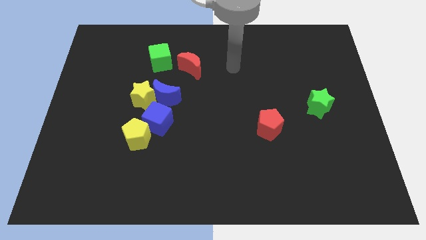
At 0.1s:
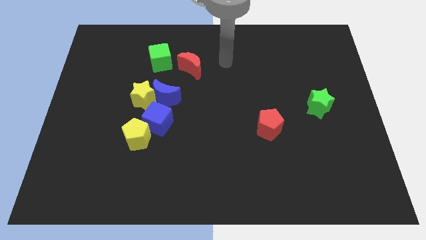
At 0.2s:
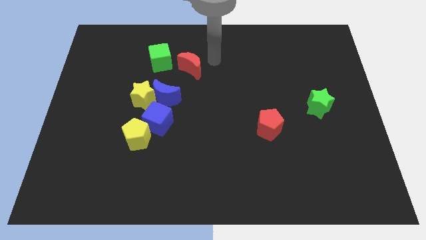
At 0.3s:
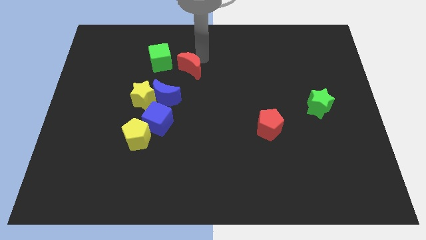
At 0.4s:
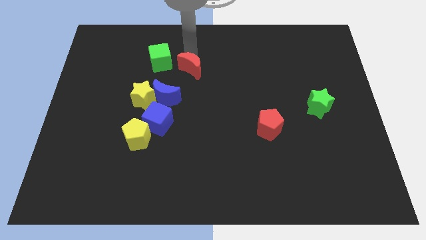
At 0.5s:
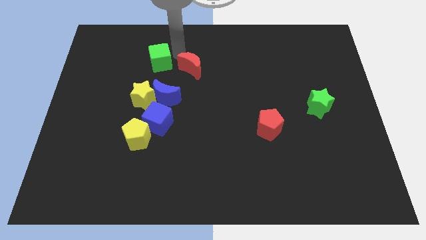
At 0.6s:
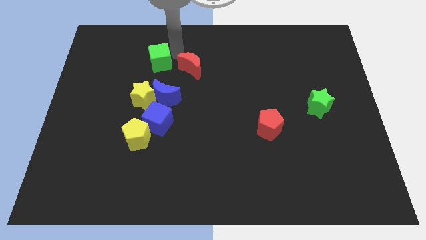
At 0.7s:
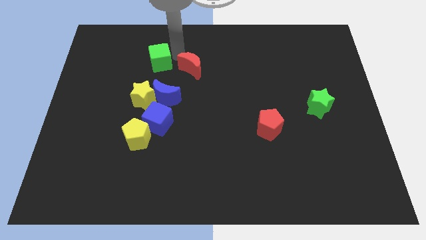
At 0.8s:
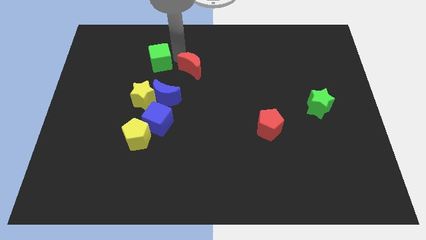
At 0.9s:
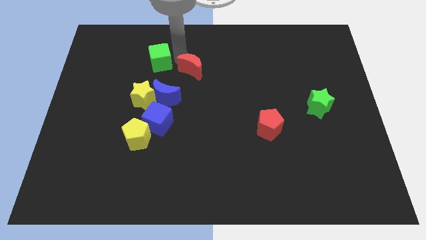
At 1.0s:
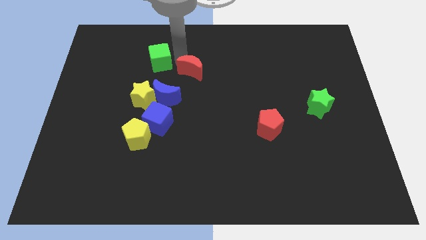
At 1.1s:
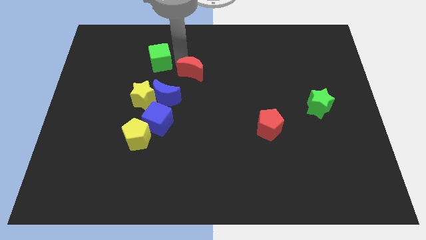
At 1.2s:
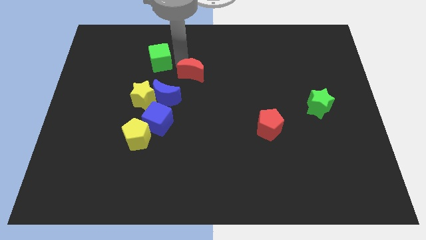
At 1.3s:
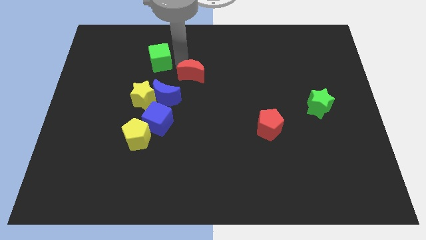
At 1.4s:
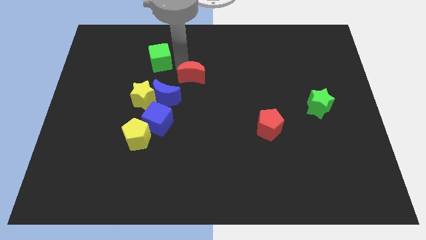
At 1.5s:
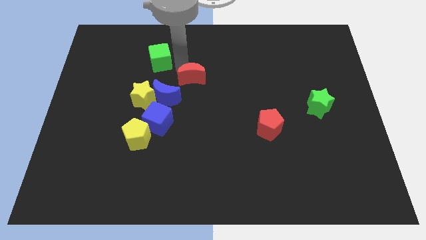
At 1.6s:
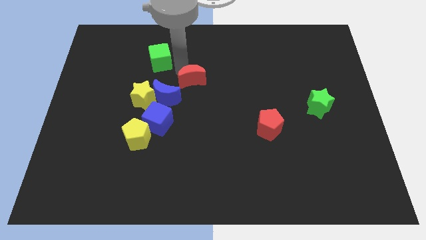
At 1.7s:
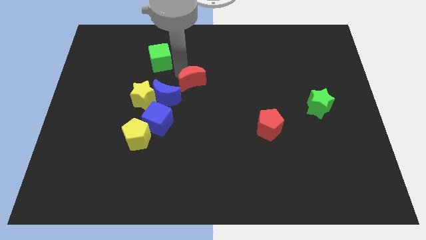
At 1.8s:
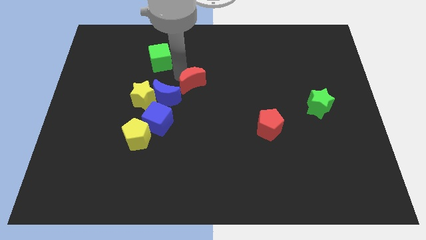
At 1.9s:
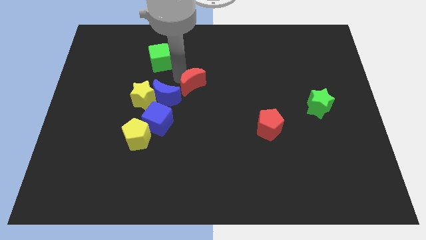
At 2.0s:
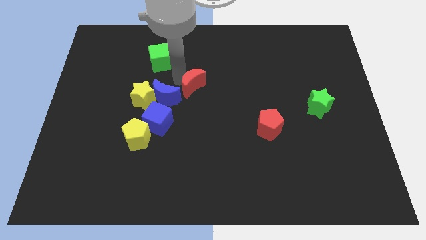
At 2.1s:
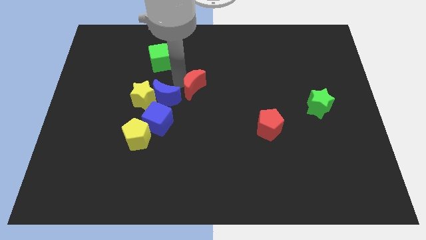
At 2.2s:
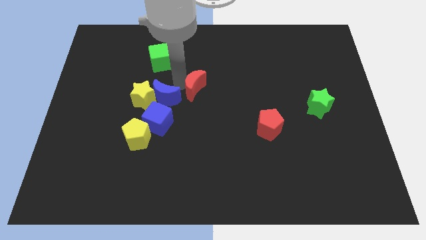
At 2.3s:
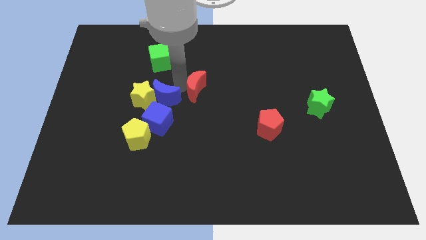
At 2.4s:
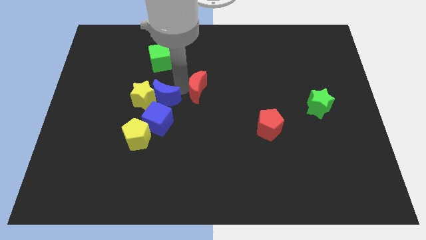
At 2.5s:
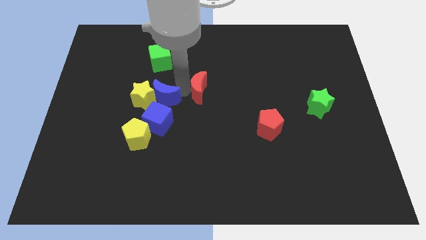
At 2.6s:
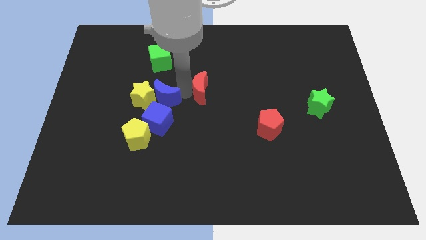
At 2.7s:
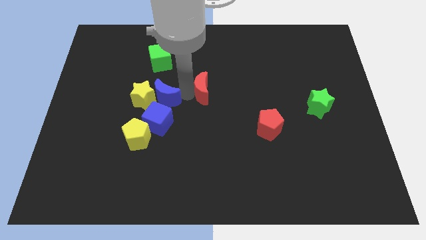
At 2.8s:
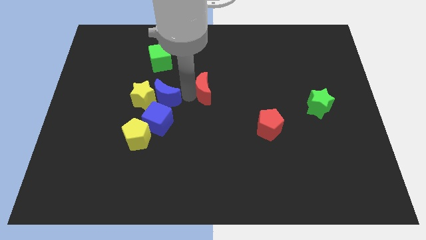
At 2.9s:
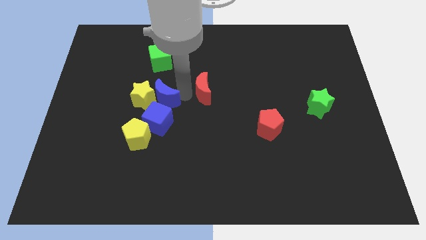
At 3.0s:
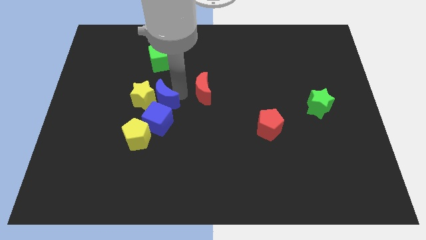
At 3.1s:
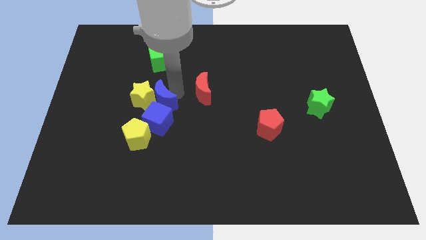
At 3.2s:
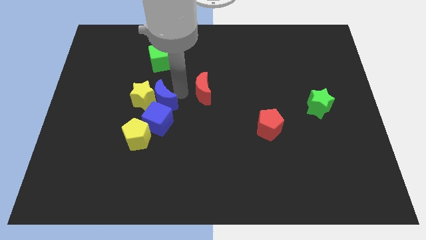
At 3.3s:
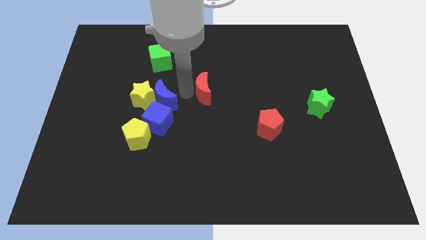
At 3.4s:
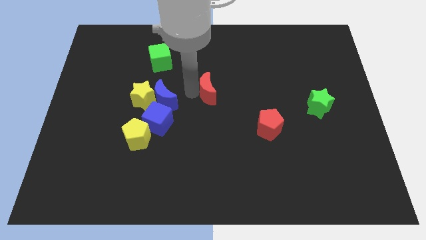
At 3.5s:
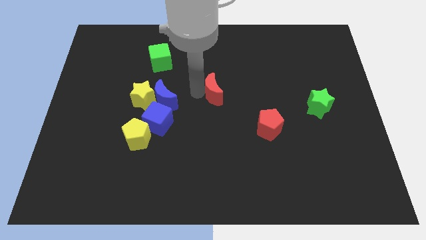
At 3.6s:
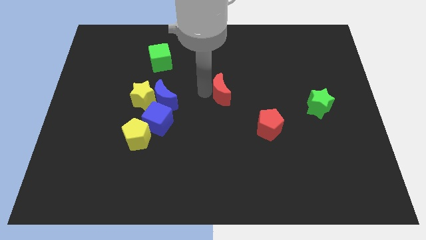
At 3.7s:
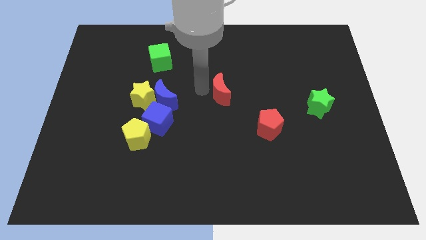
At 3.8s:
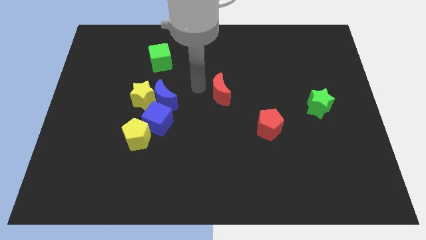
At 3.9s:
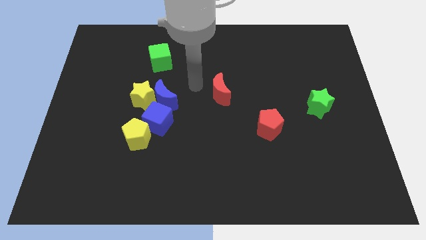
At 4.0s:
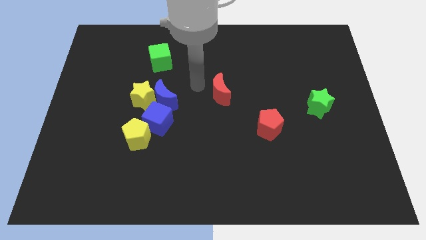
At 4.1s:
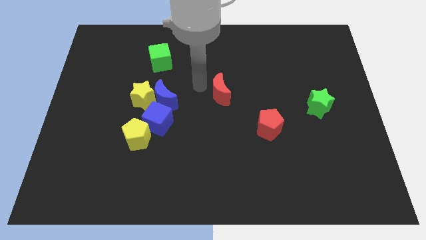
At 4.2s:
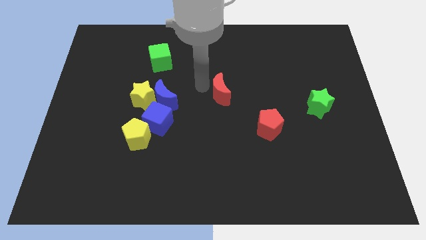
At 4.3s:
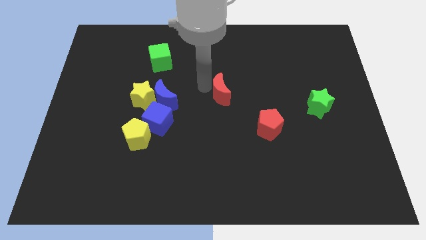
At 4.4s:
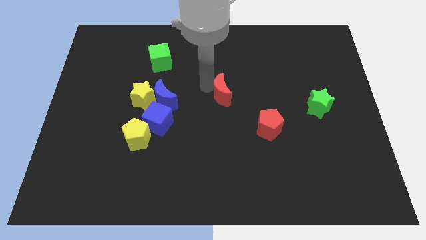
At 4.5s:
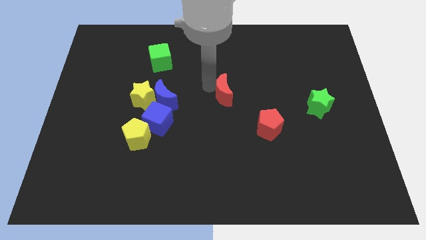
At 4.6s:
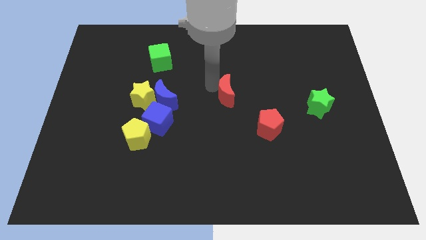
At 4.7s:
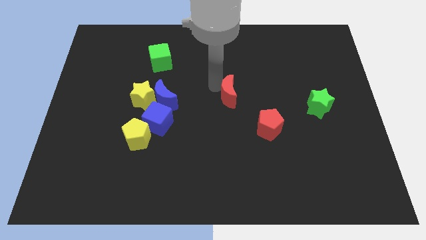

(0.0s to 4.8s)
push the red moon to the top left side of the red pentagon

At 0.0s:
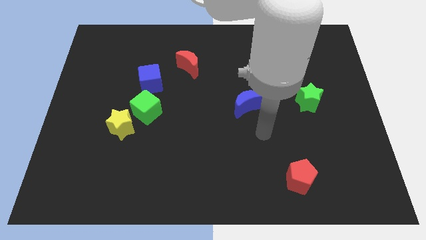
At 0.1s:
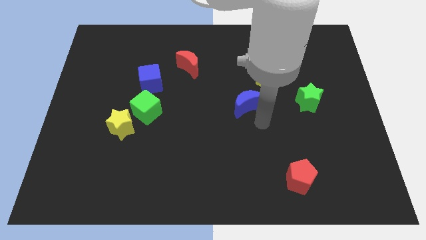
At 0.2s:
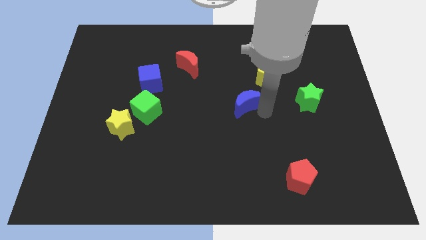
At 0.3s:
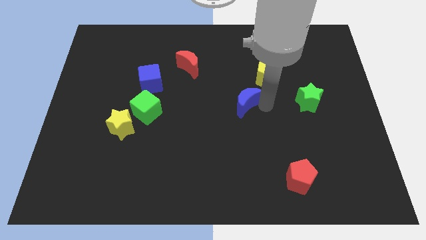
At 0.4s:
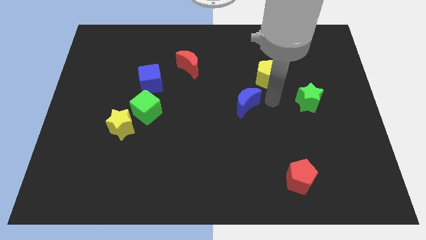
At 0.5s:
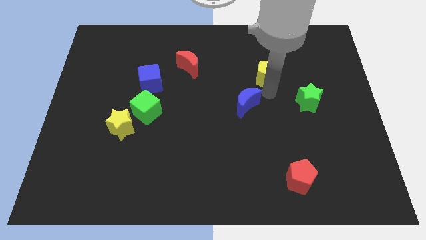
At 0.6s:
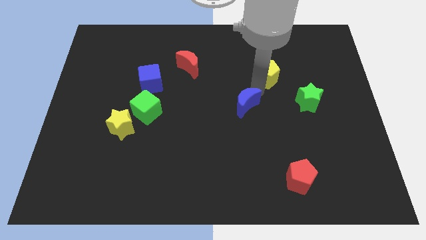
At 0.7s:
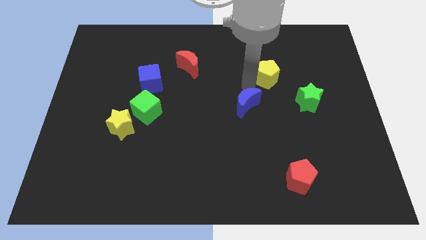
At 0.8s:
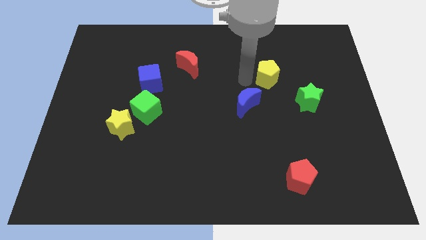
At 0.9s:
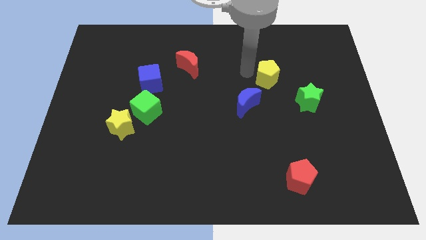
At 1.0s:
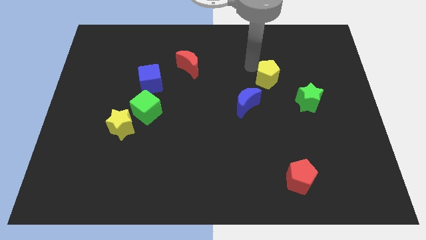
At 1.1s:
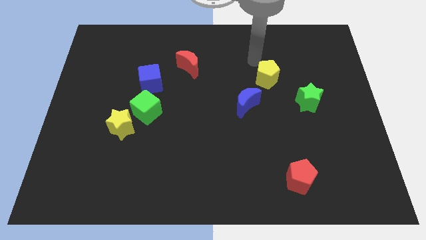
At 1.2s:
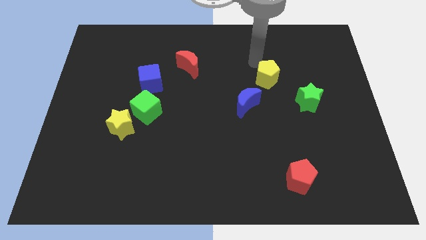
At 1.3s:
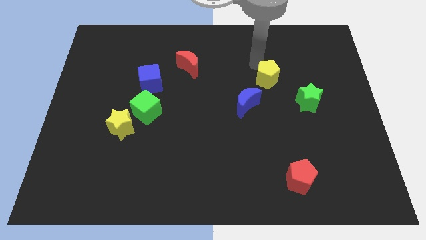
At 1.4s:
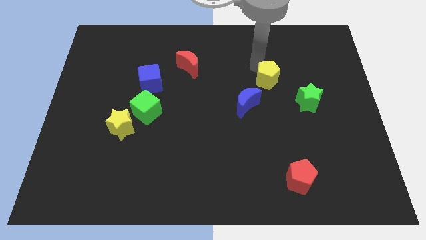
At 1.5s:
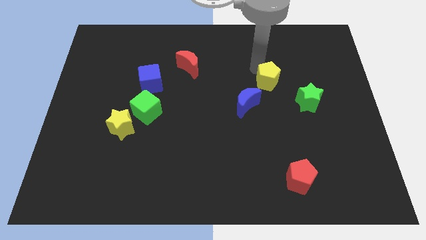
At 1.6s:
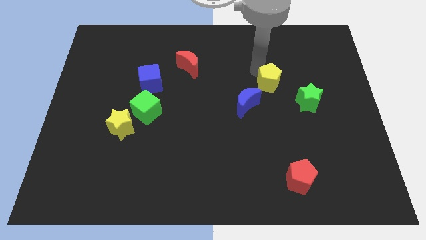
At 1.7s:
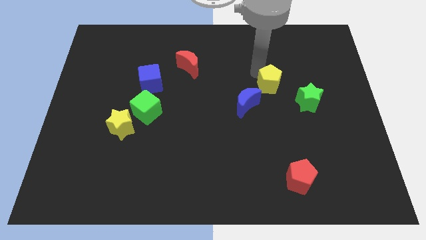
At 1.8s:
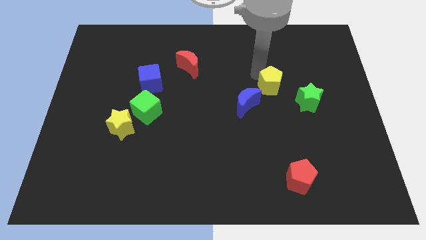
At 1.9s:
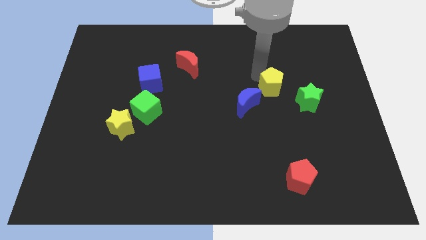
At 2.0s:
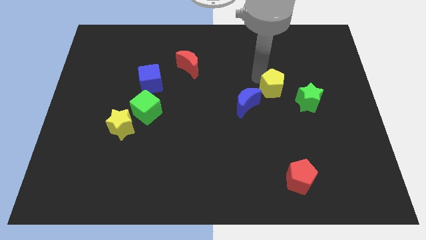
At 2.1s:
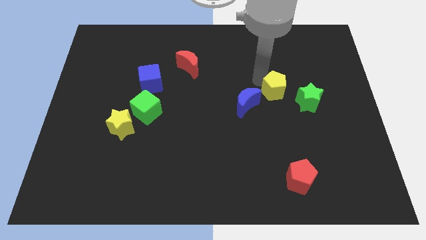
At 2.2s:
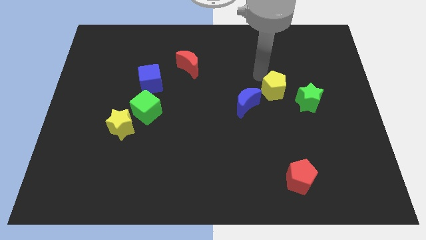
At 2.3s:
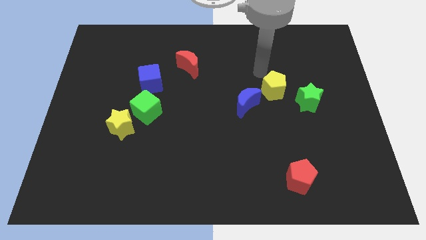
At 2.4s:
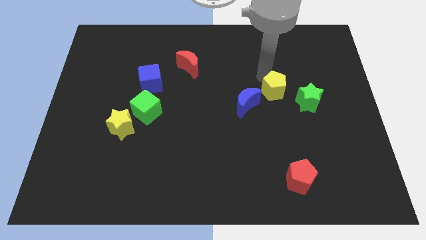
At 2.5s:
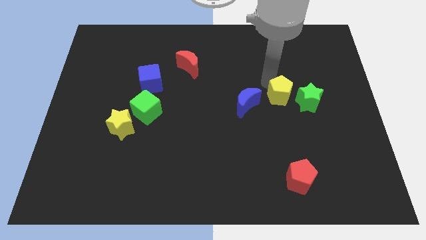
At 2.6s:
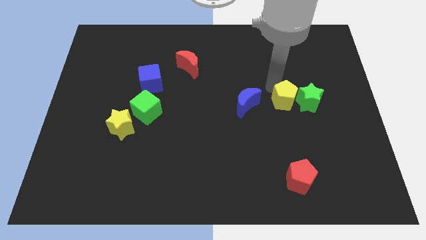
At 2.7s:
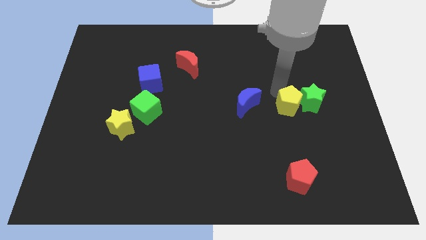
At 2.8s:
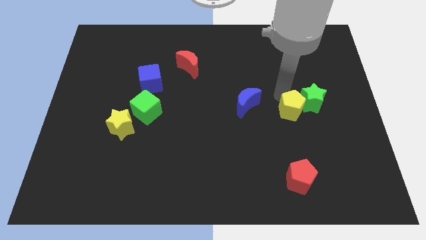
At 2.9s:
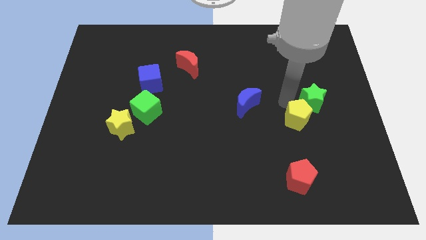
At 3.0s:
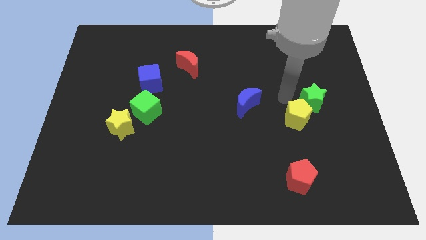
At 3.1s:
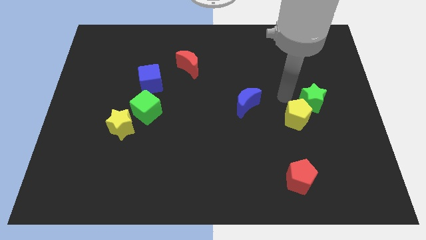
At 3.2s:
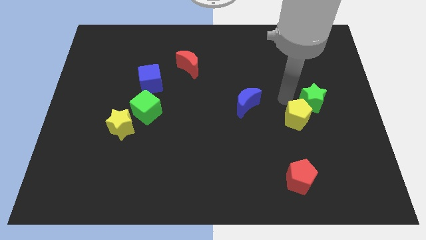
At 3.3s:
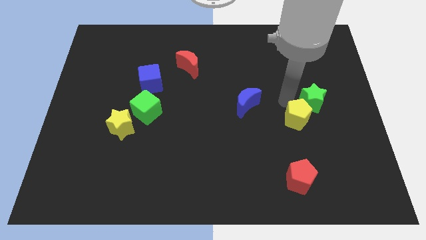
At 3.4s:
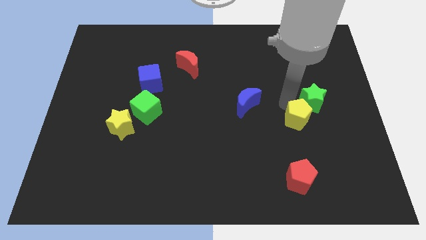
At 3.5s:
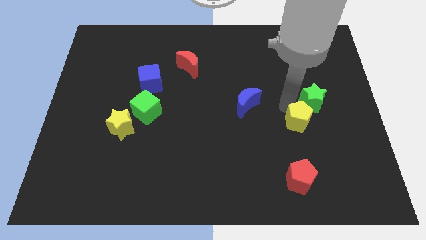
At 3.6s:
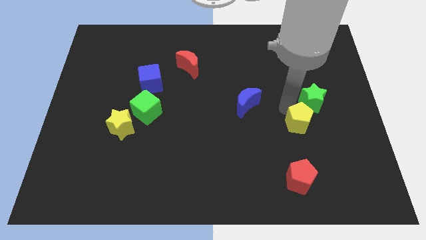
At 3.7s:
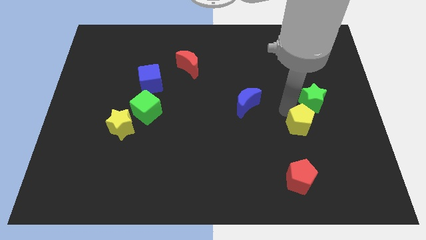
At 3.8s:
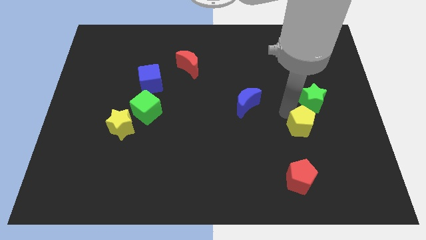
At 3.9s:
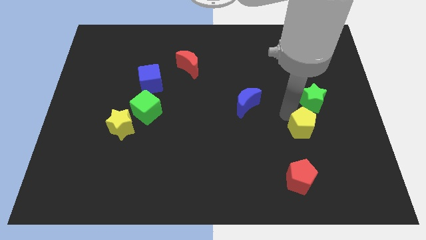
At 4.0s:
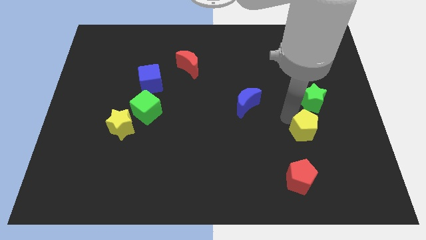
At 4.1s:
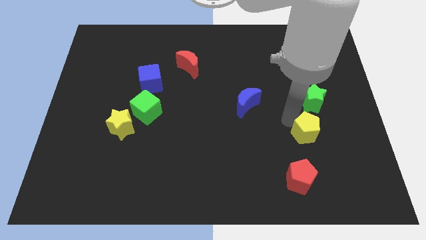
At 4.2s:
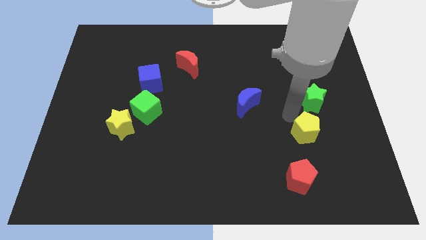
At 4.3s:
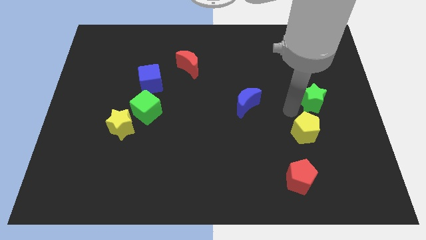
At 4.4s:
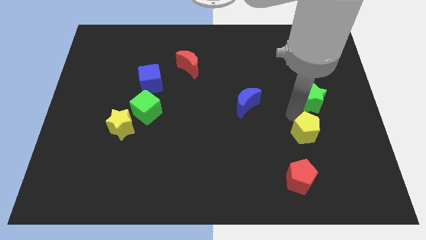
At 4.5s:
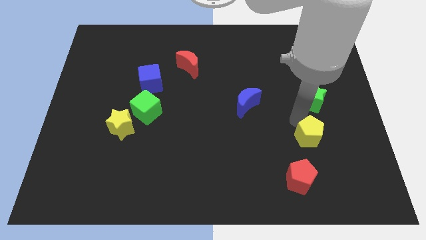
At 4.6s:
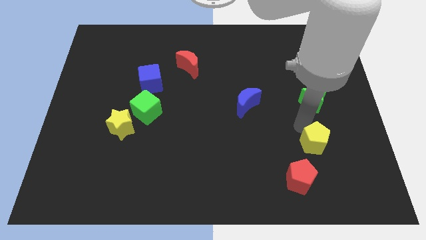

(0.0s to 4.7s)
move the yellow pentagon diagonally up and to the right of the red pentagon
